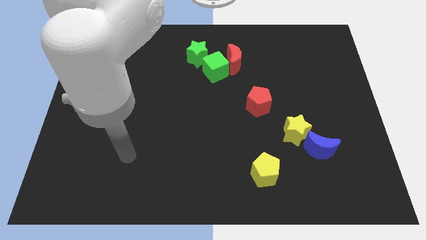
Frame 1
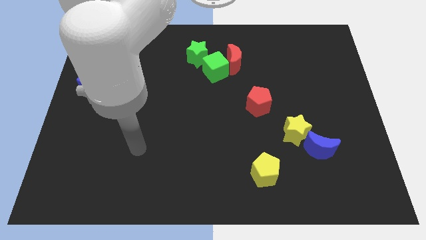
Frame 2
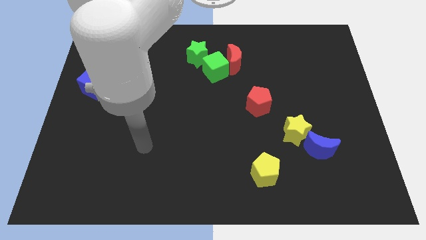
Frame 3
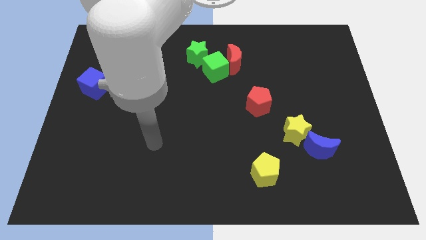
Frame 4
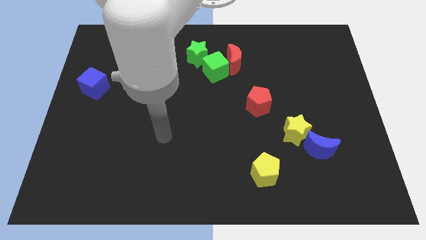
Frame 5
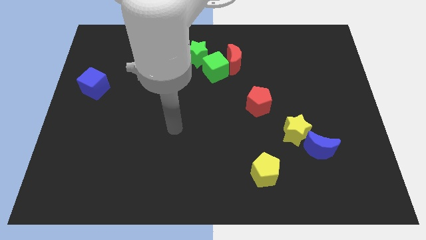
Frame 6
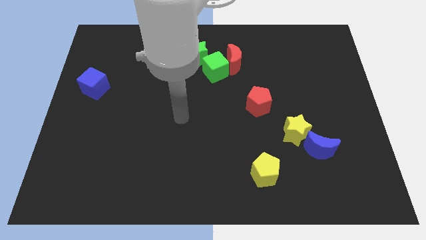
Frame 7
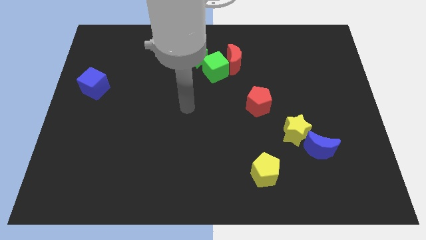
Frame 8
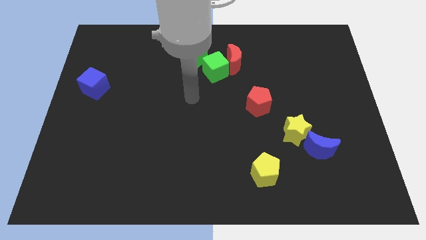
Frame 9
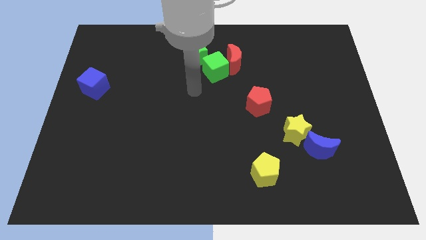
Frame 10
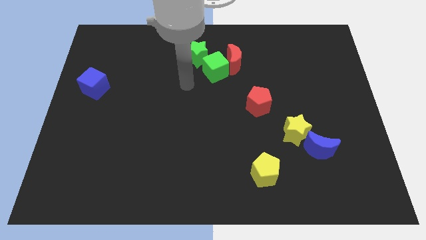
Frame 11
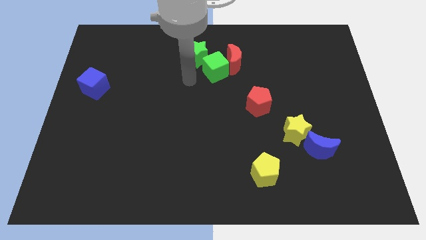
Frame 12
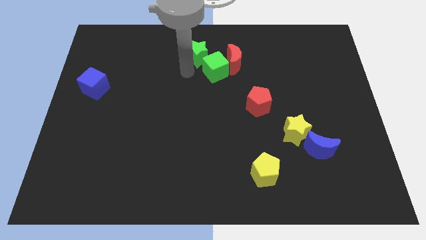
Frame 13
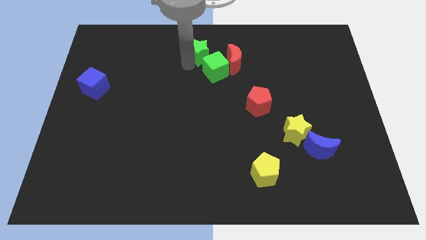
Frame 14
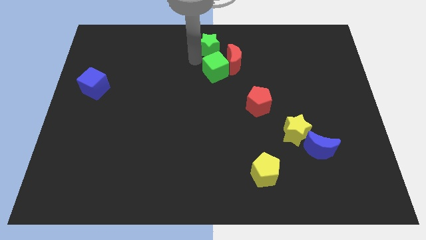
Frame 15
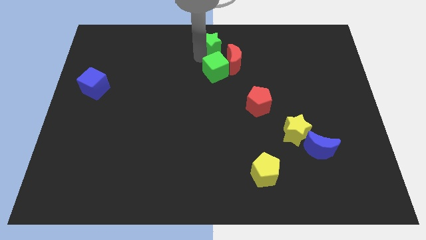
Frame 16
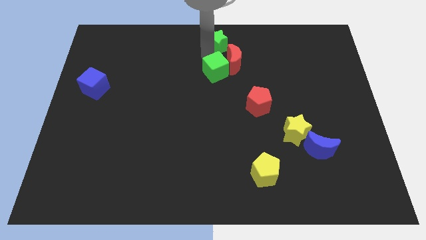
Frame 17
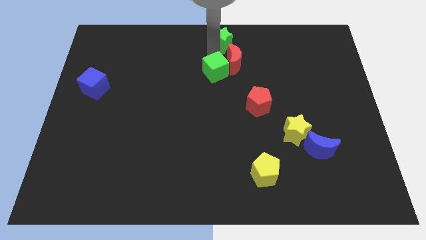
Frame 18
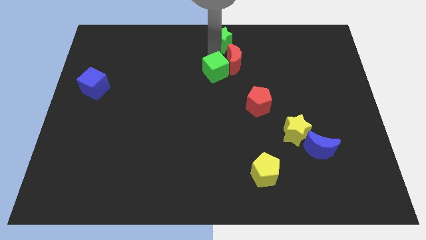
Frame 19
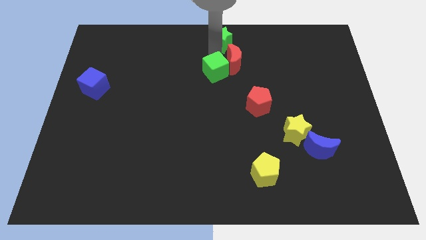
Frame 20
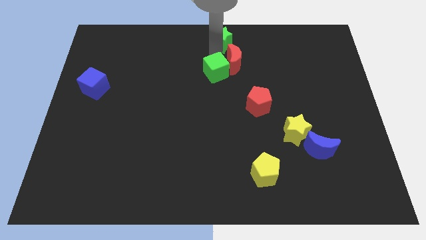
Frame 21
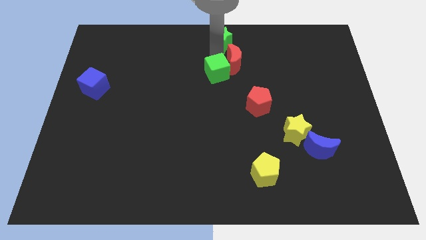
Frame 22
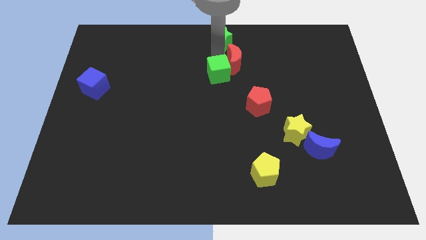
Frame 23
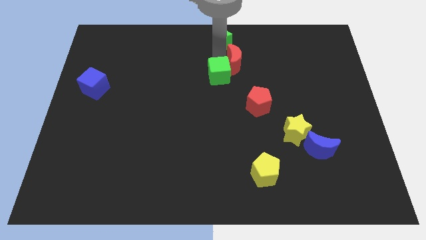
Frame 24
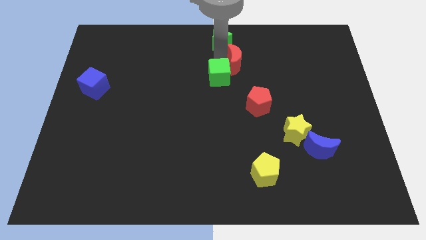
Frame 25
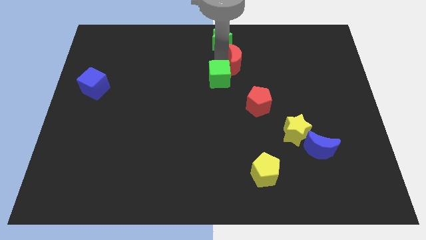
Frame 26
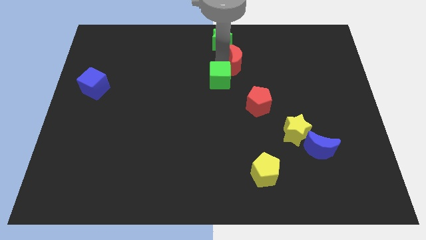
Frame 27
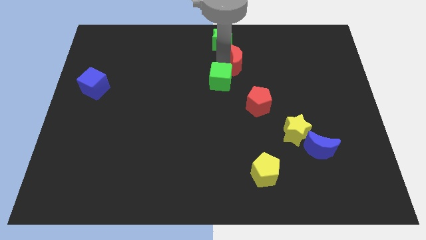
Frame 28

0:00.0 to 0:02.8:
move the green cube away from the red moon and green star

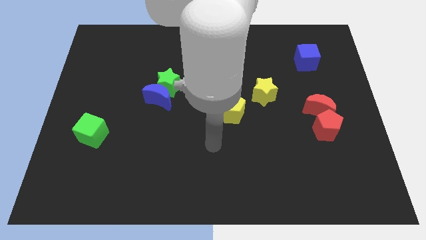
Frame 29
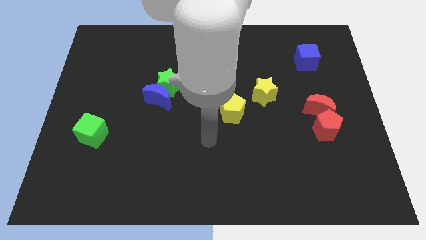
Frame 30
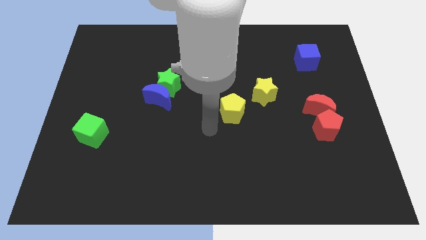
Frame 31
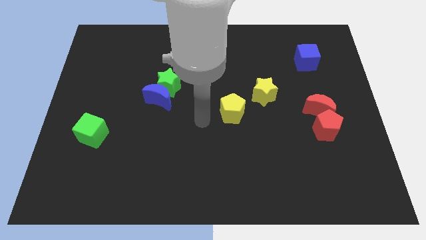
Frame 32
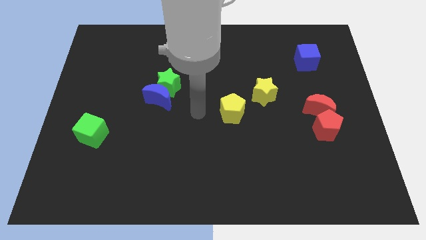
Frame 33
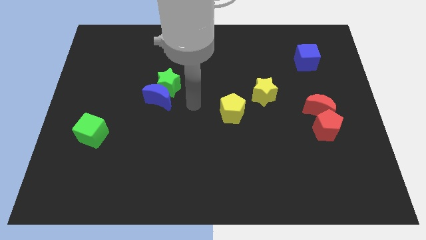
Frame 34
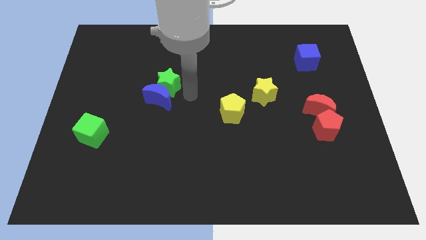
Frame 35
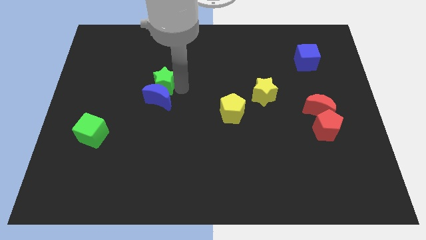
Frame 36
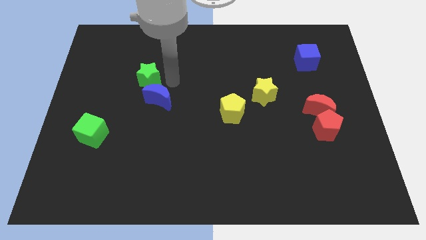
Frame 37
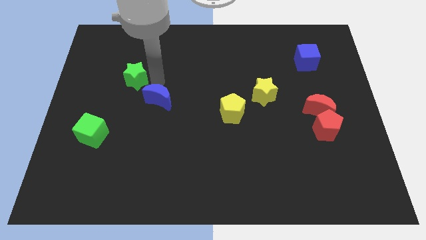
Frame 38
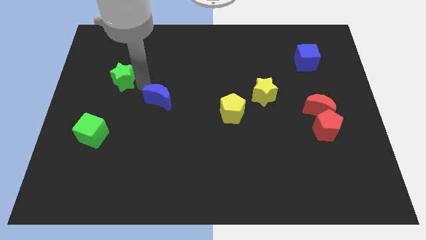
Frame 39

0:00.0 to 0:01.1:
move the blue moon away from the green star

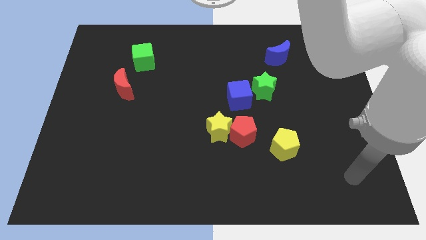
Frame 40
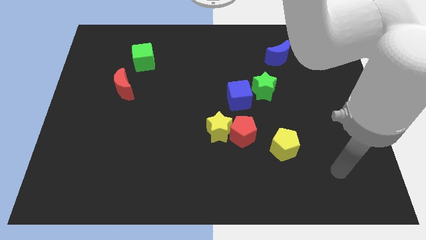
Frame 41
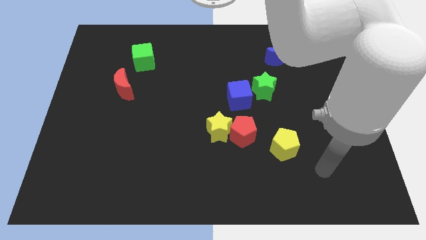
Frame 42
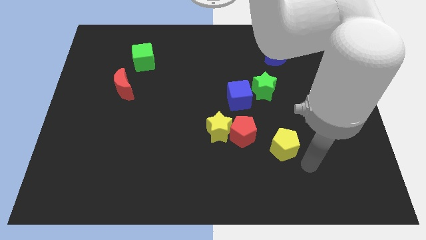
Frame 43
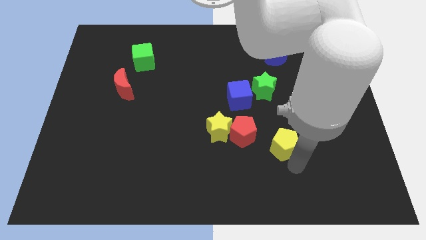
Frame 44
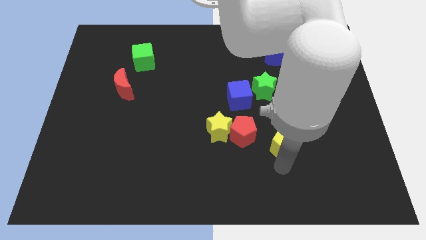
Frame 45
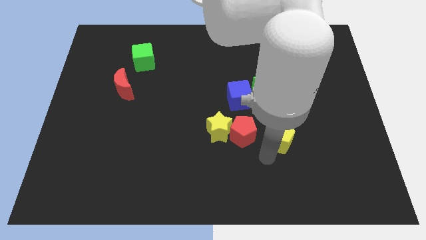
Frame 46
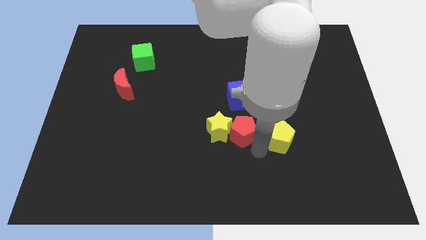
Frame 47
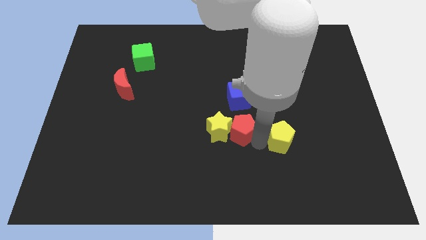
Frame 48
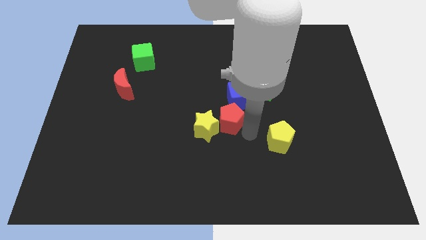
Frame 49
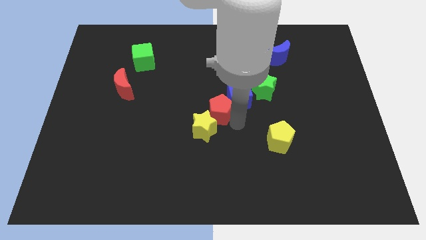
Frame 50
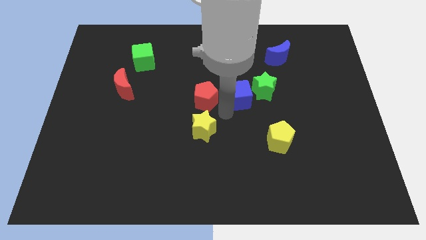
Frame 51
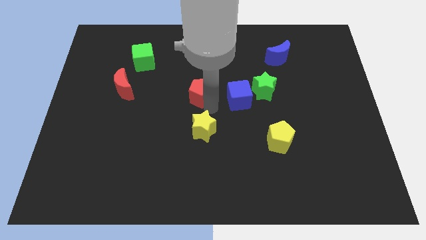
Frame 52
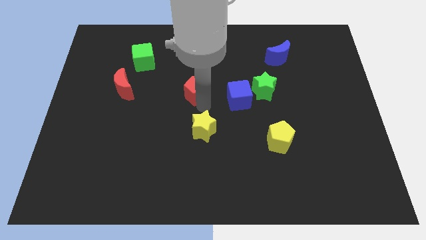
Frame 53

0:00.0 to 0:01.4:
separate the yellow star from the red pentagon

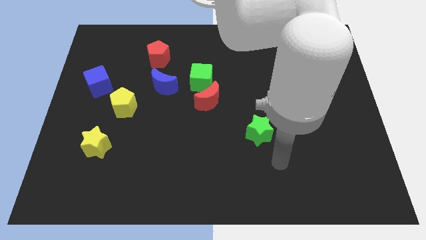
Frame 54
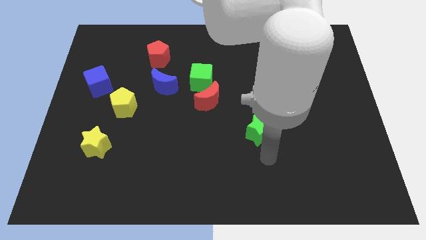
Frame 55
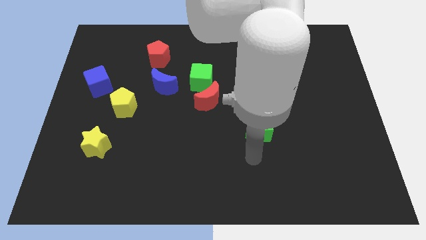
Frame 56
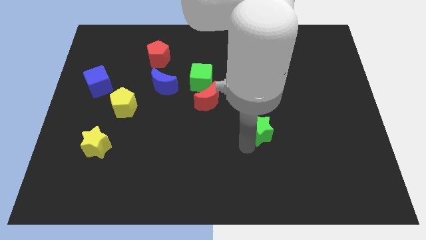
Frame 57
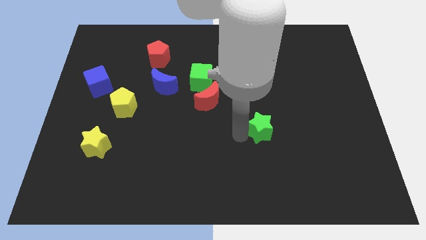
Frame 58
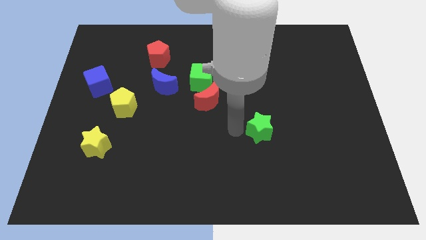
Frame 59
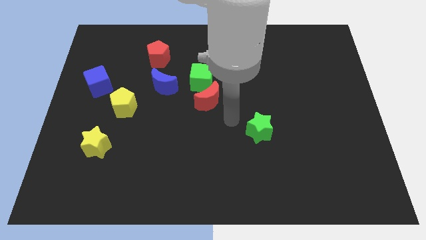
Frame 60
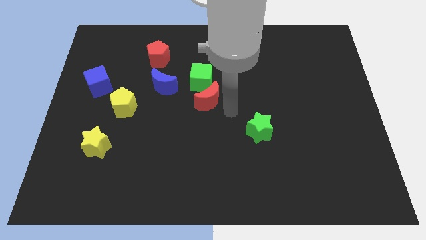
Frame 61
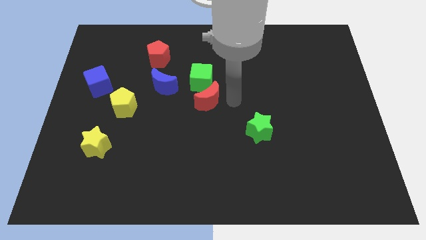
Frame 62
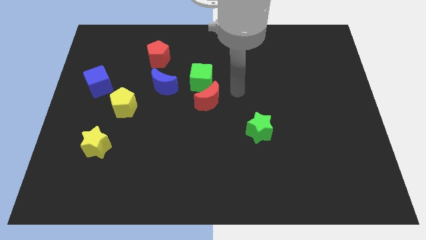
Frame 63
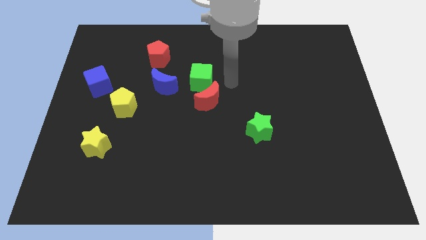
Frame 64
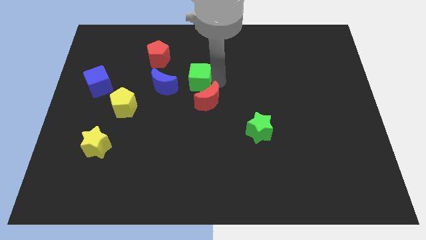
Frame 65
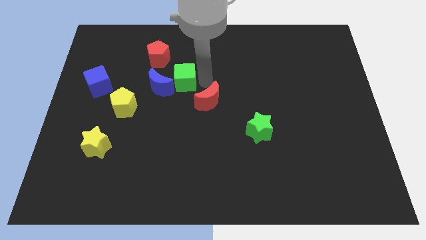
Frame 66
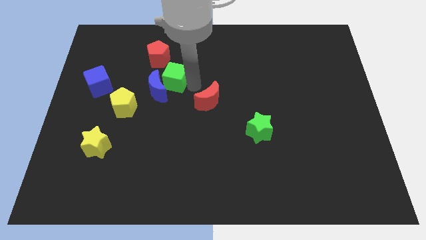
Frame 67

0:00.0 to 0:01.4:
move the red moon away from the green cube

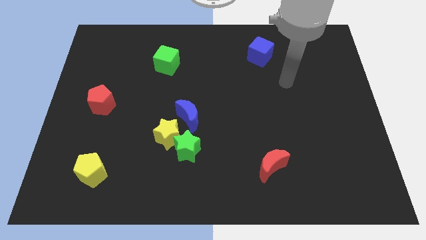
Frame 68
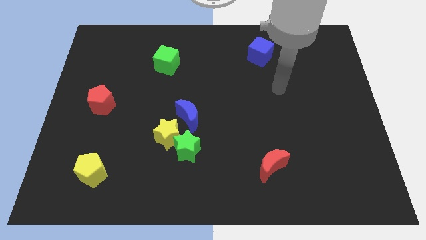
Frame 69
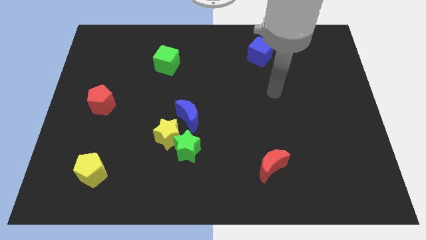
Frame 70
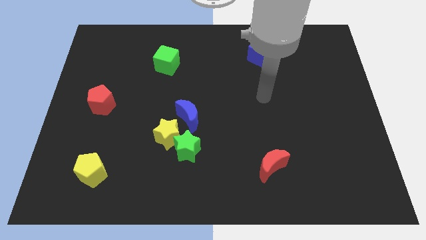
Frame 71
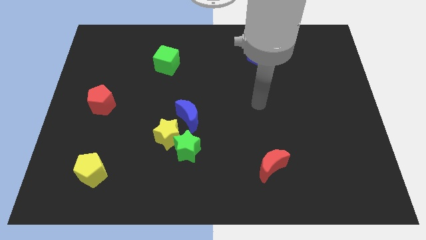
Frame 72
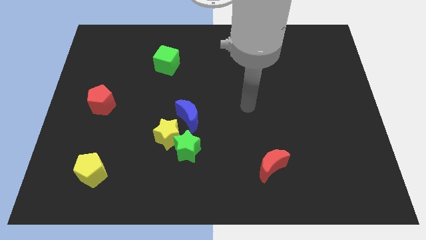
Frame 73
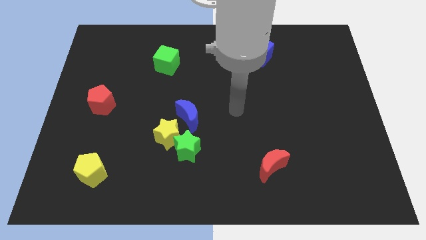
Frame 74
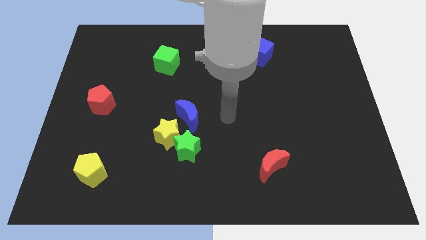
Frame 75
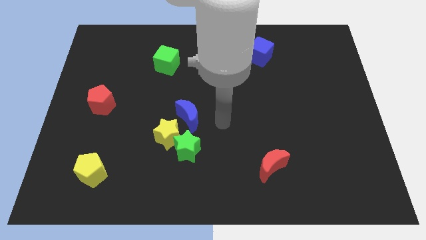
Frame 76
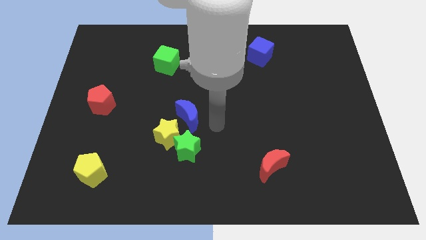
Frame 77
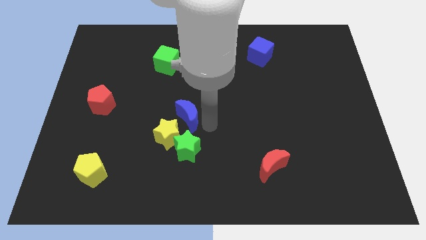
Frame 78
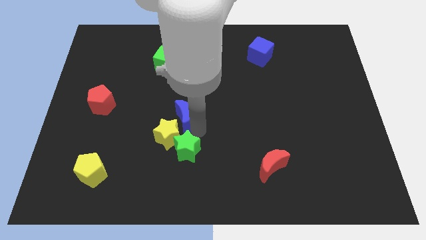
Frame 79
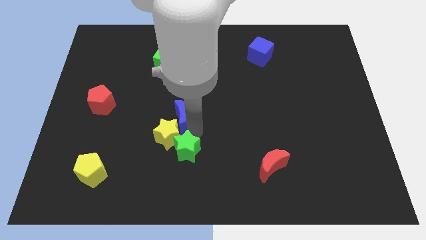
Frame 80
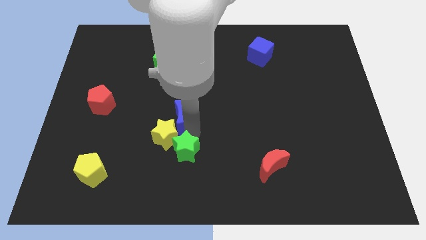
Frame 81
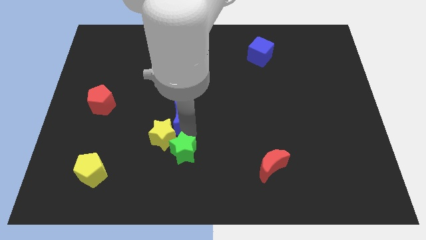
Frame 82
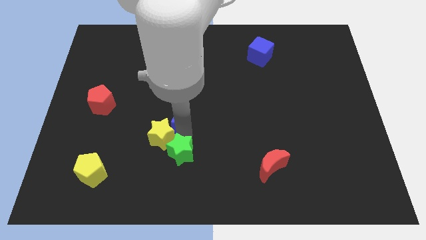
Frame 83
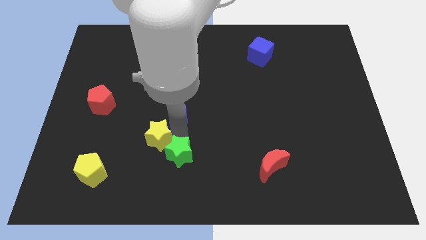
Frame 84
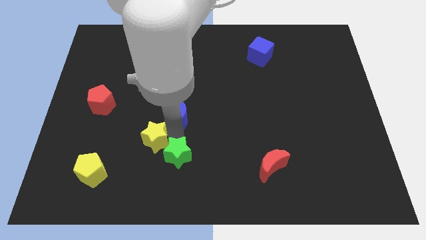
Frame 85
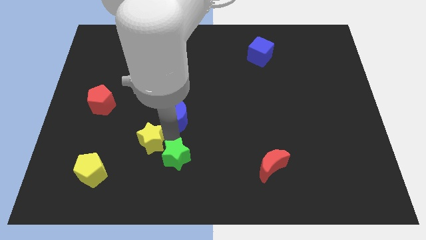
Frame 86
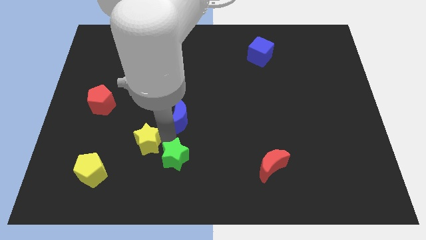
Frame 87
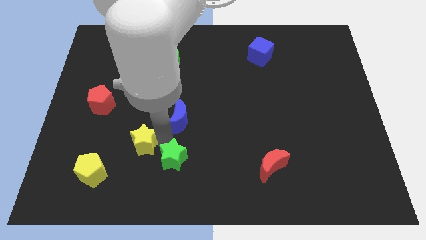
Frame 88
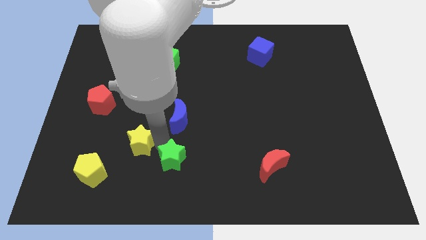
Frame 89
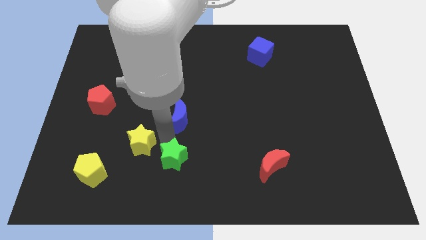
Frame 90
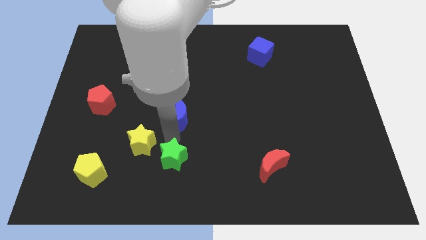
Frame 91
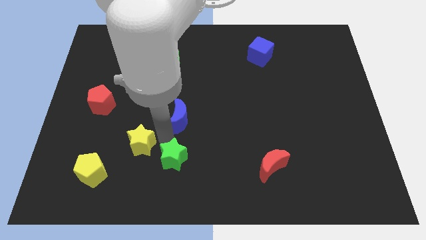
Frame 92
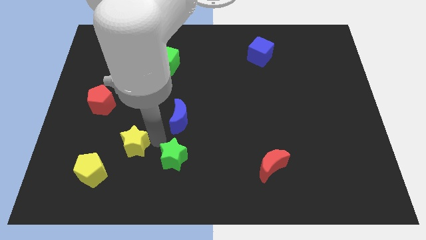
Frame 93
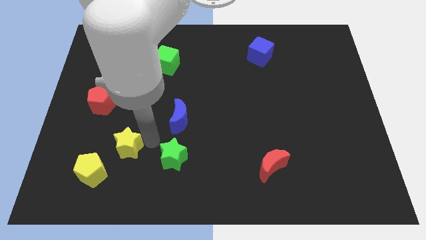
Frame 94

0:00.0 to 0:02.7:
separate the yellow star from the green star and blue moon
